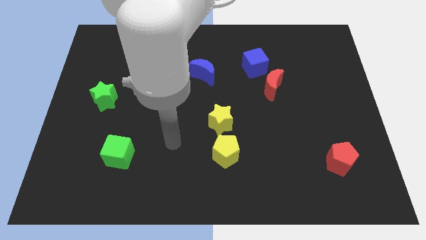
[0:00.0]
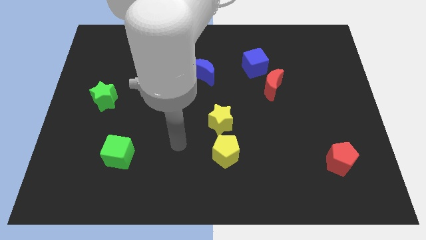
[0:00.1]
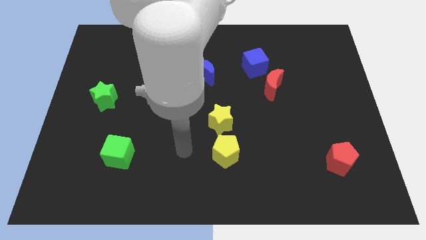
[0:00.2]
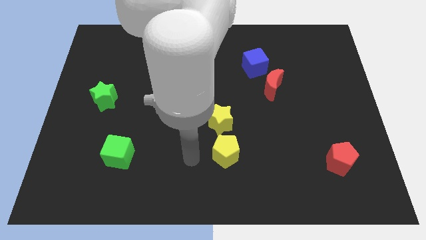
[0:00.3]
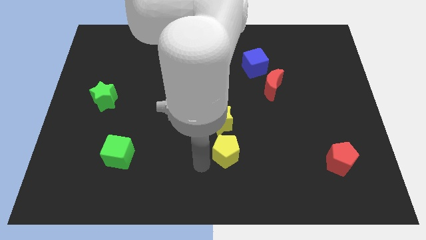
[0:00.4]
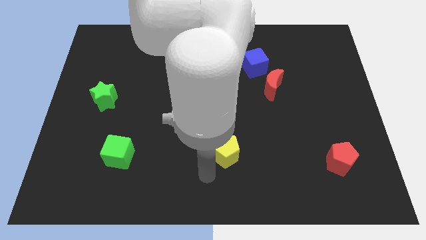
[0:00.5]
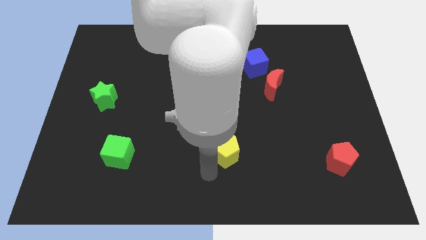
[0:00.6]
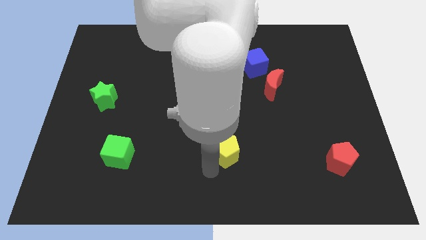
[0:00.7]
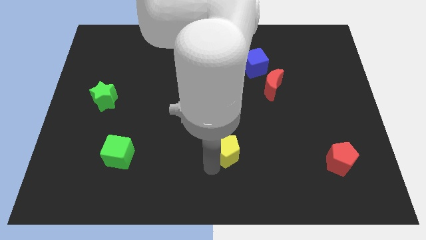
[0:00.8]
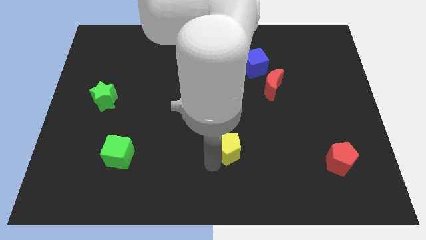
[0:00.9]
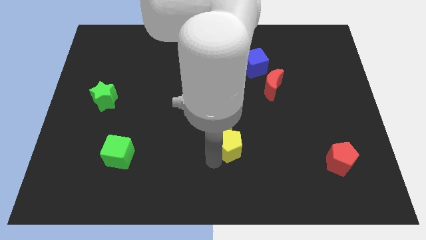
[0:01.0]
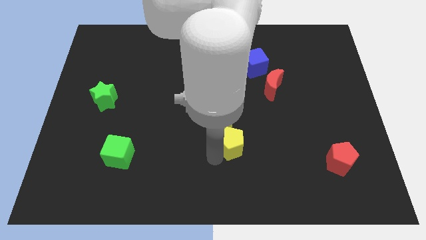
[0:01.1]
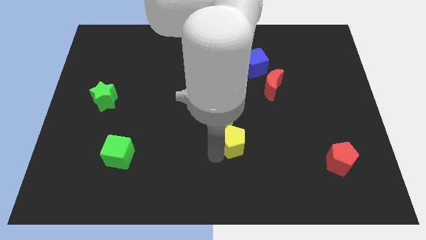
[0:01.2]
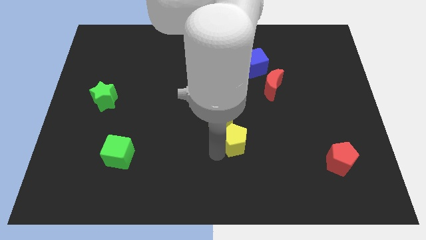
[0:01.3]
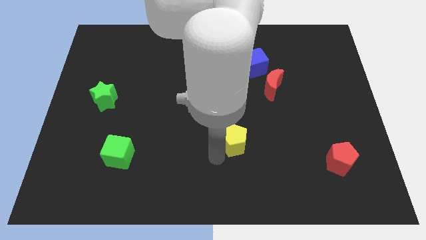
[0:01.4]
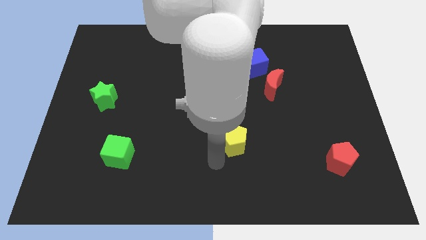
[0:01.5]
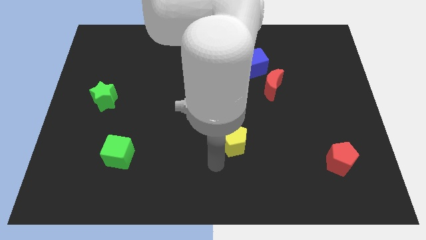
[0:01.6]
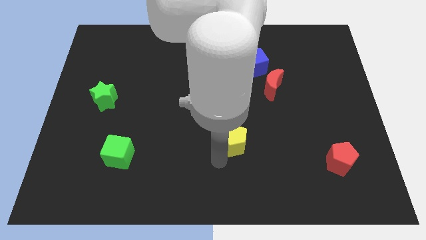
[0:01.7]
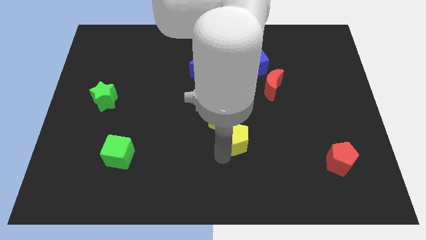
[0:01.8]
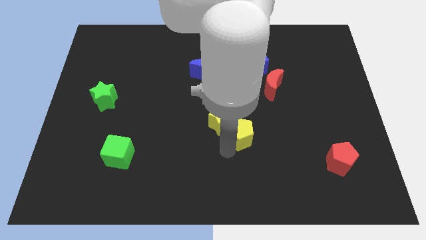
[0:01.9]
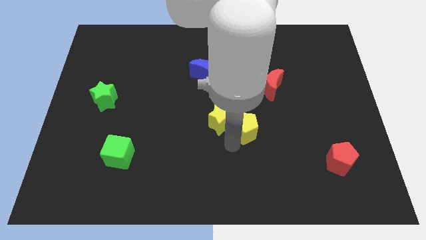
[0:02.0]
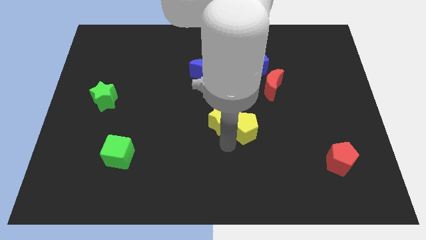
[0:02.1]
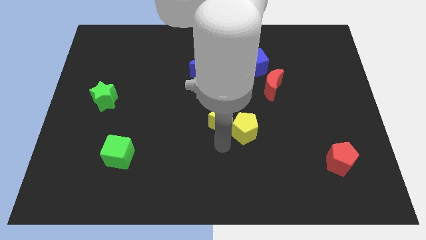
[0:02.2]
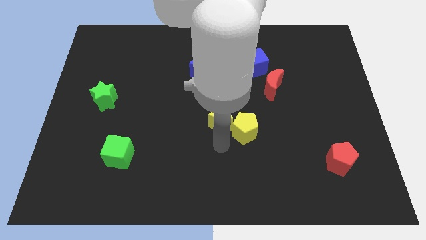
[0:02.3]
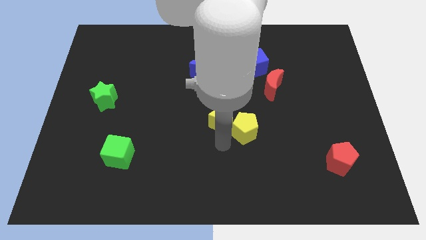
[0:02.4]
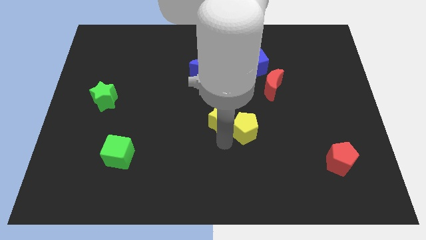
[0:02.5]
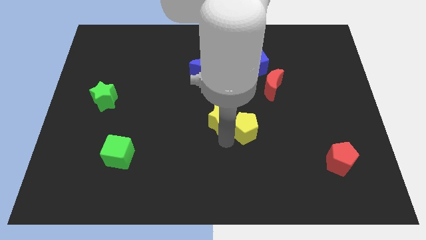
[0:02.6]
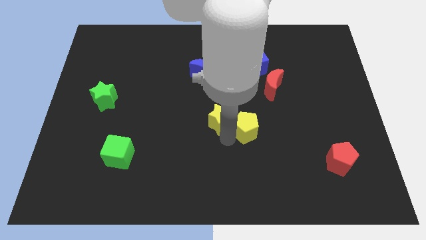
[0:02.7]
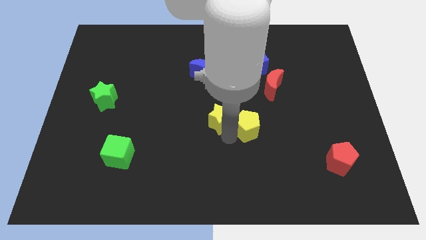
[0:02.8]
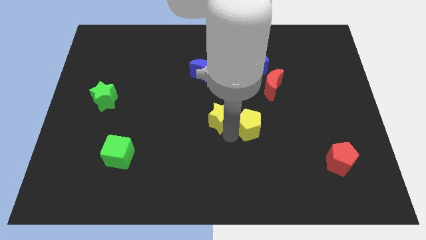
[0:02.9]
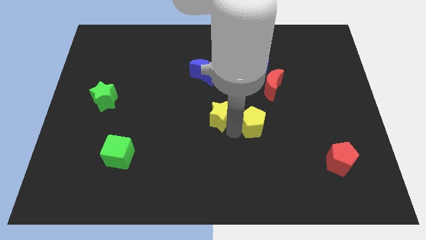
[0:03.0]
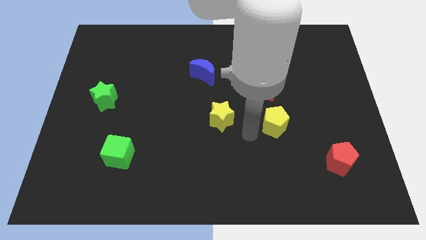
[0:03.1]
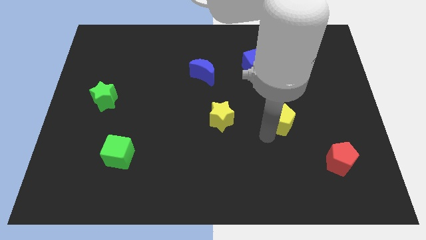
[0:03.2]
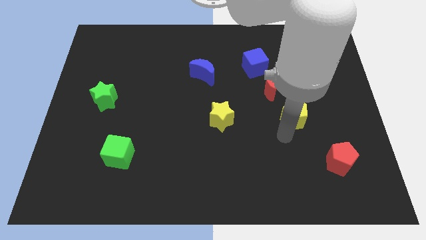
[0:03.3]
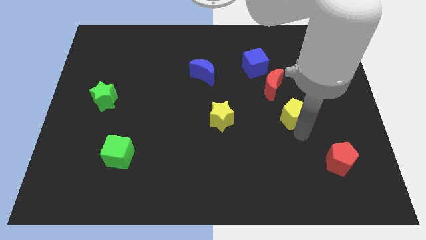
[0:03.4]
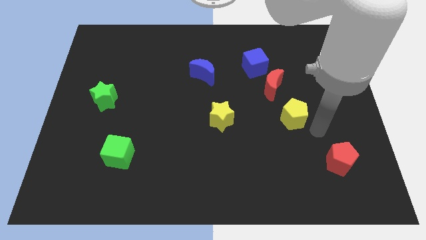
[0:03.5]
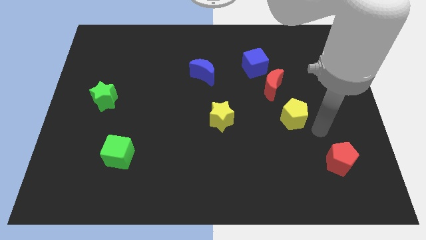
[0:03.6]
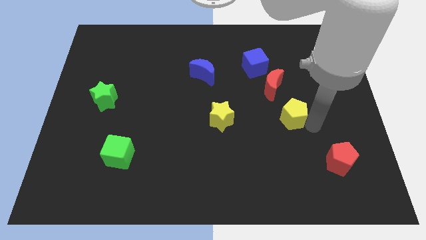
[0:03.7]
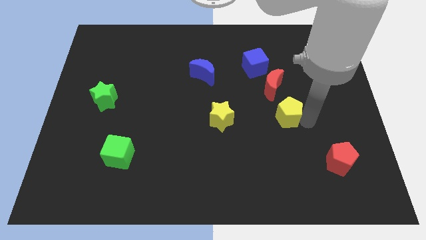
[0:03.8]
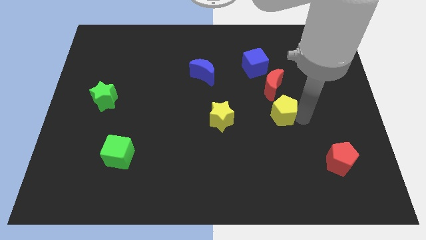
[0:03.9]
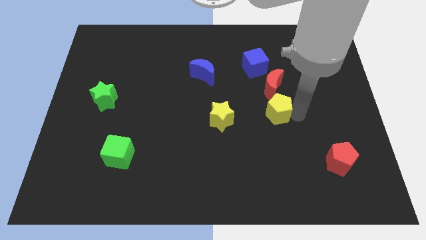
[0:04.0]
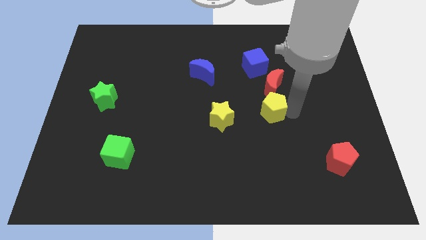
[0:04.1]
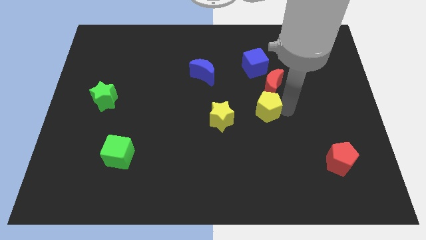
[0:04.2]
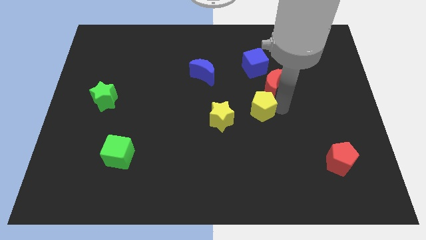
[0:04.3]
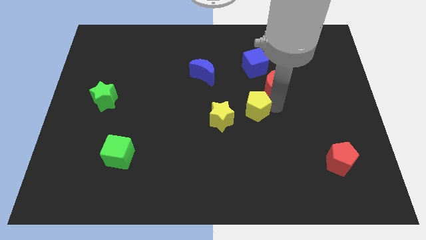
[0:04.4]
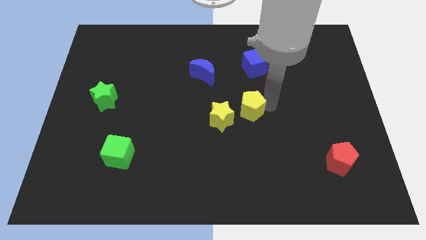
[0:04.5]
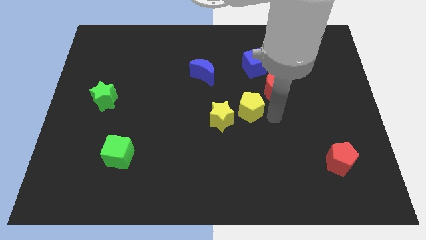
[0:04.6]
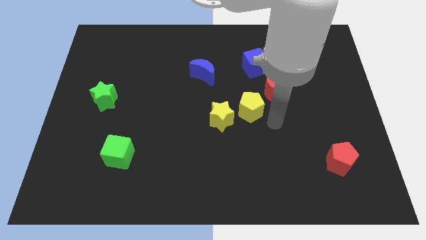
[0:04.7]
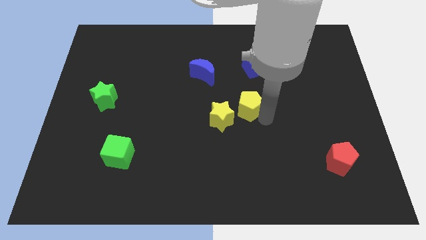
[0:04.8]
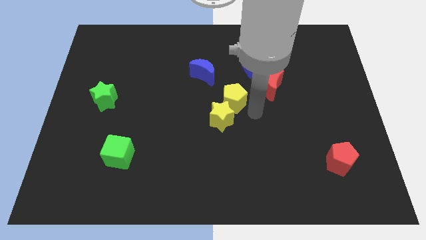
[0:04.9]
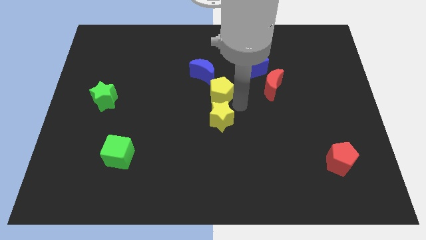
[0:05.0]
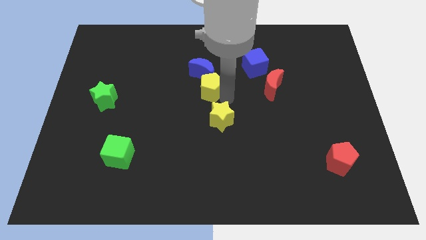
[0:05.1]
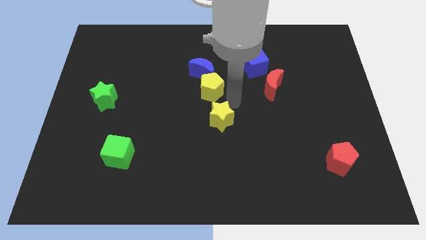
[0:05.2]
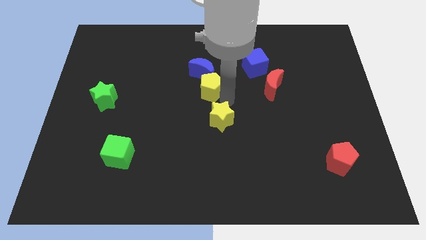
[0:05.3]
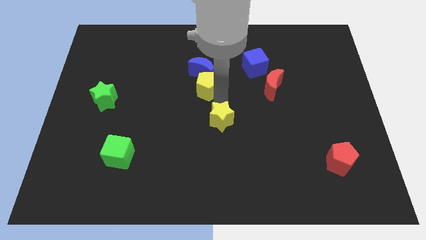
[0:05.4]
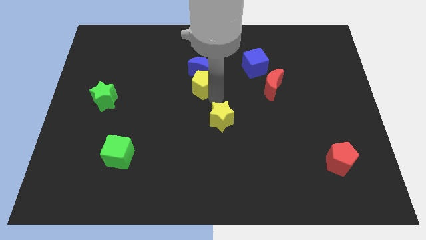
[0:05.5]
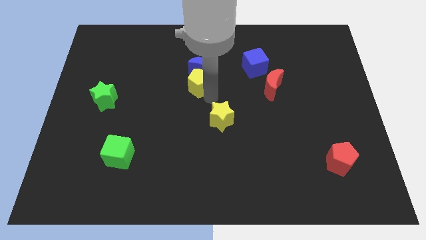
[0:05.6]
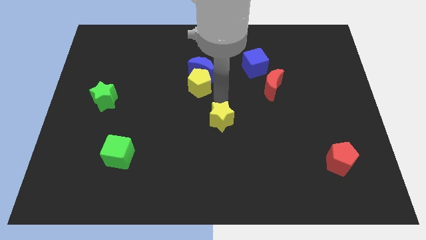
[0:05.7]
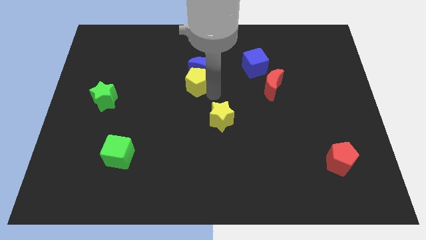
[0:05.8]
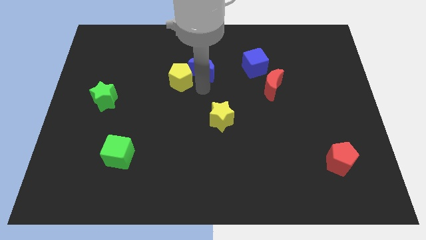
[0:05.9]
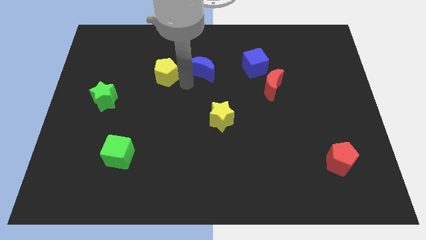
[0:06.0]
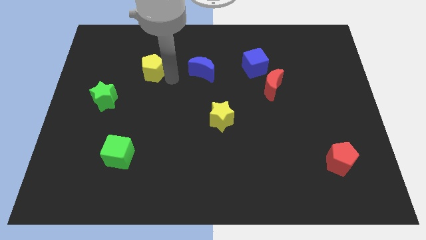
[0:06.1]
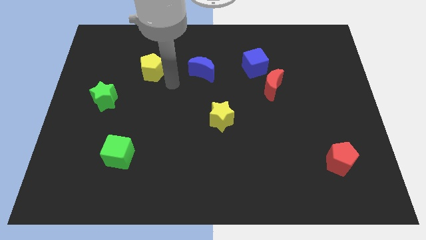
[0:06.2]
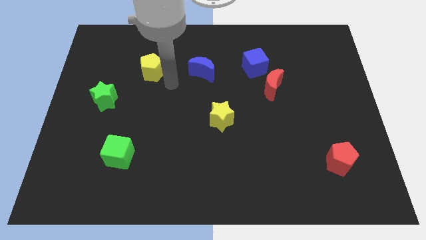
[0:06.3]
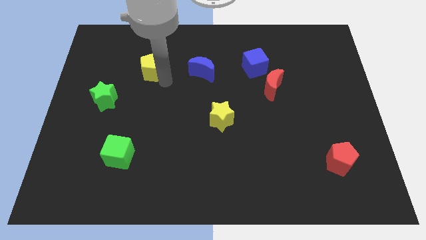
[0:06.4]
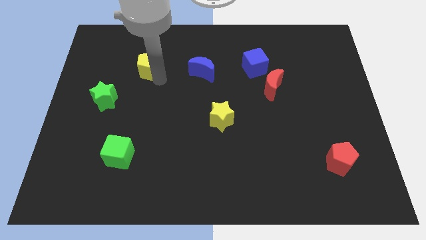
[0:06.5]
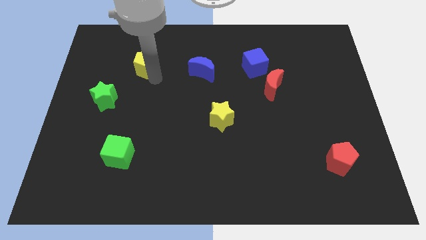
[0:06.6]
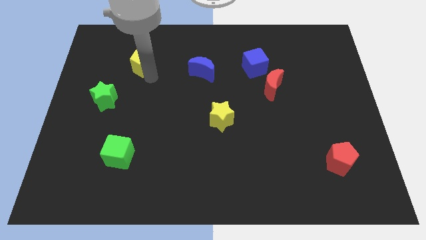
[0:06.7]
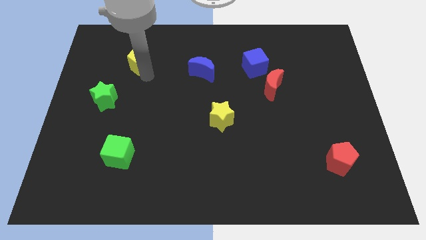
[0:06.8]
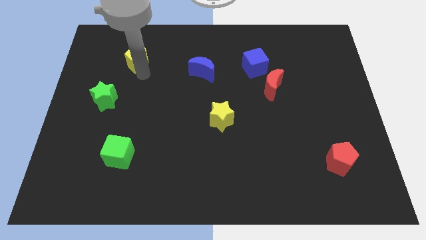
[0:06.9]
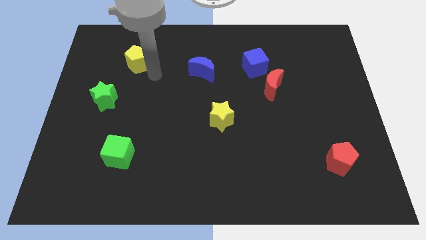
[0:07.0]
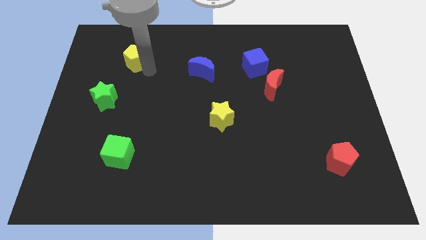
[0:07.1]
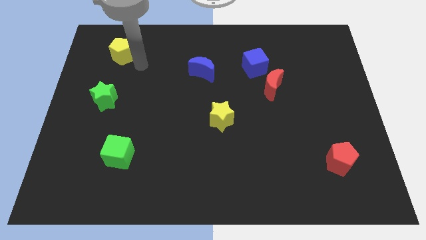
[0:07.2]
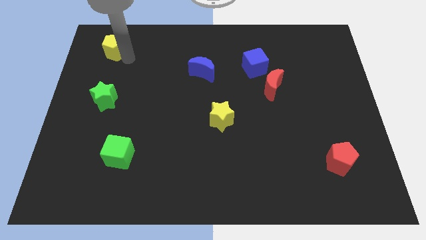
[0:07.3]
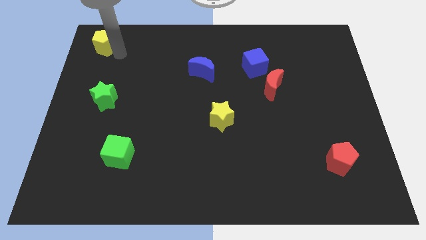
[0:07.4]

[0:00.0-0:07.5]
put the yellow pentagon to the top left
